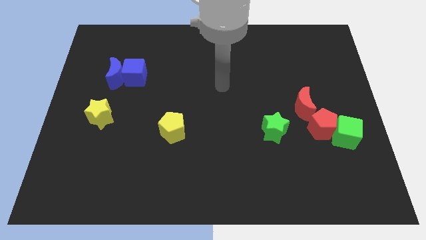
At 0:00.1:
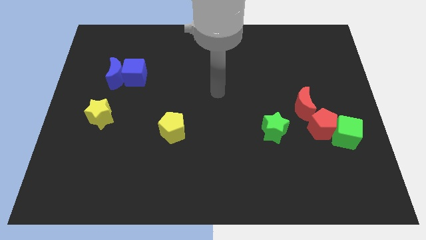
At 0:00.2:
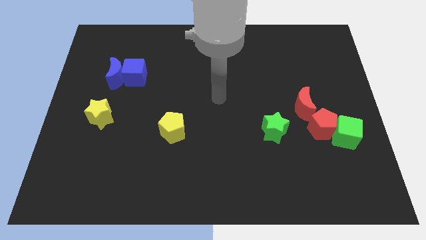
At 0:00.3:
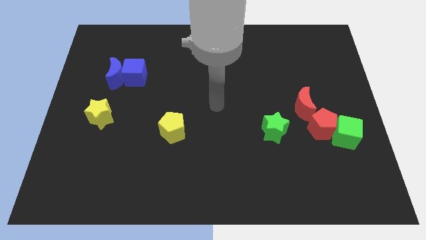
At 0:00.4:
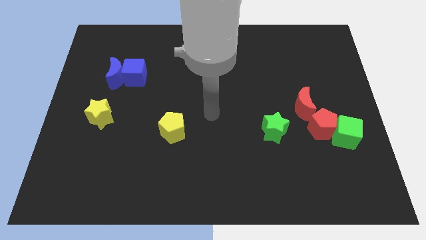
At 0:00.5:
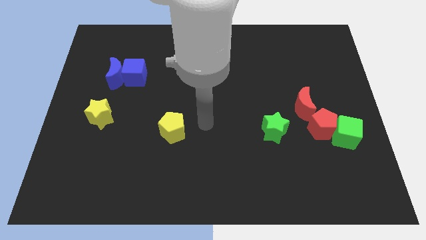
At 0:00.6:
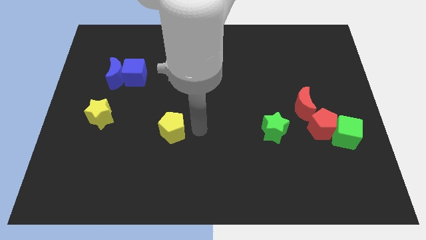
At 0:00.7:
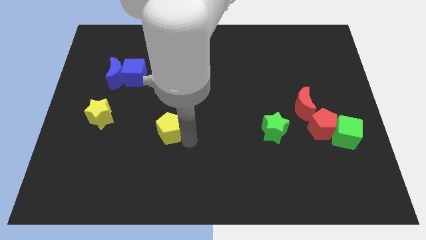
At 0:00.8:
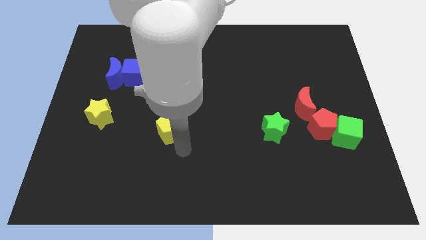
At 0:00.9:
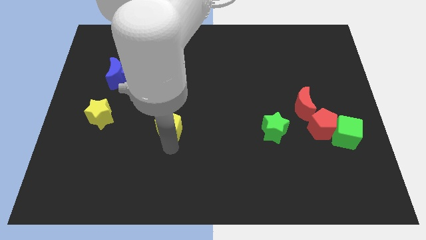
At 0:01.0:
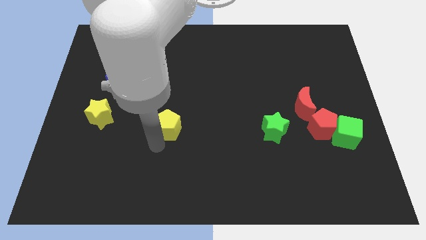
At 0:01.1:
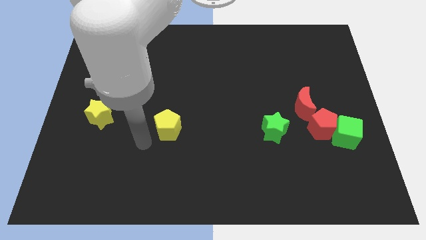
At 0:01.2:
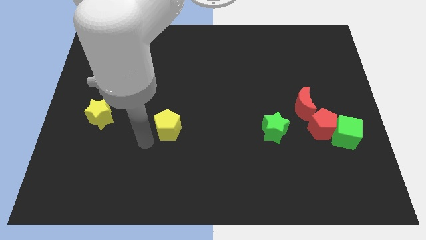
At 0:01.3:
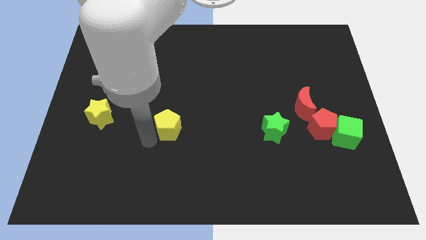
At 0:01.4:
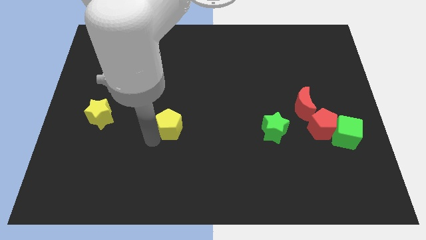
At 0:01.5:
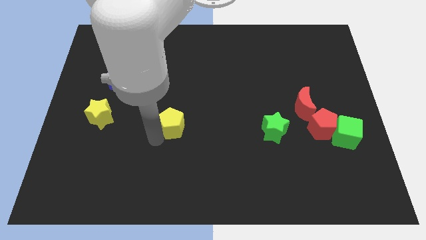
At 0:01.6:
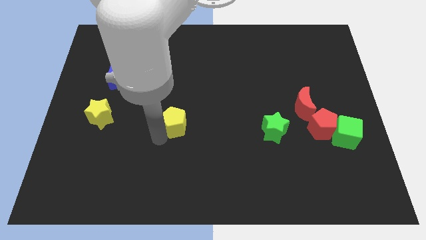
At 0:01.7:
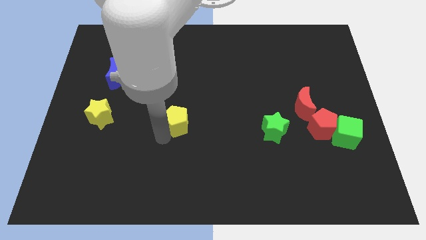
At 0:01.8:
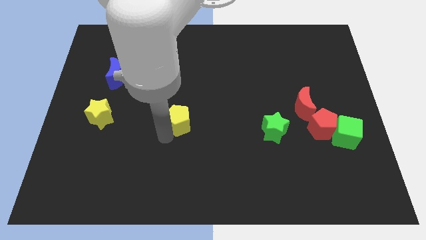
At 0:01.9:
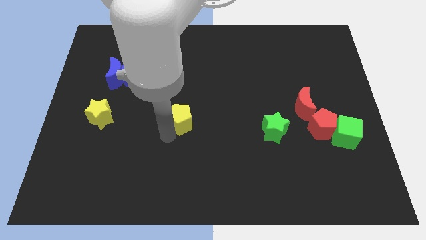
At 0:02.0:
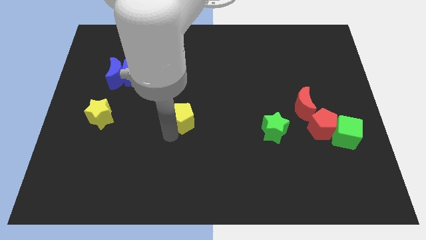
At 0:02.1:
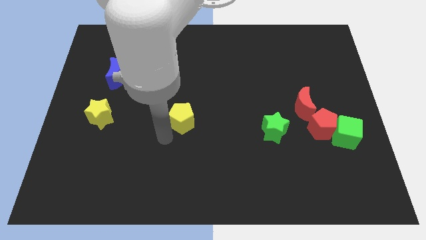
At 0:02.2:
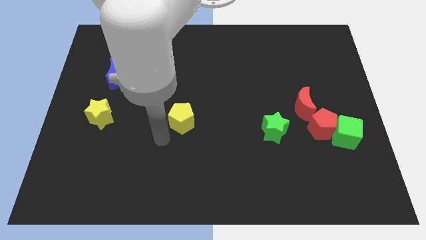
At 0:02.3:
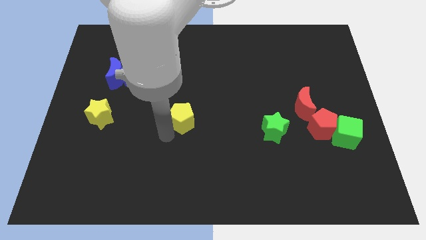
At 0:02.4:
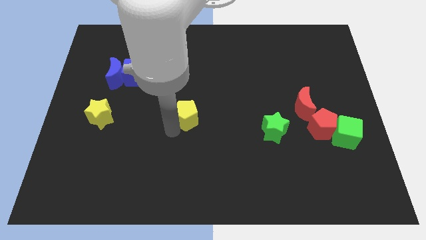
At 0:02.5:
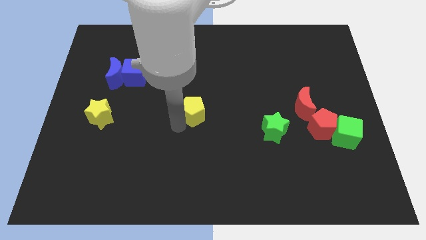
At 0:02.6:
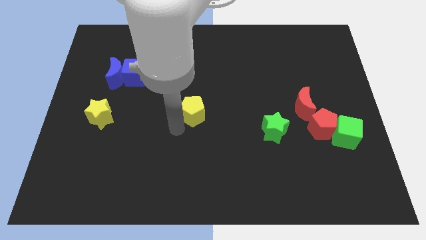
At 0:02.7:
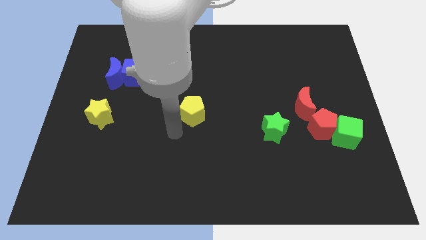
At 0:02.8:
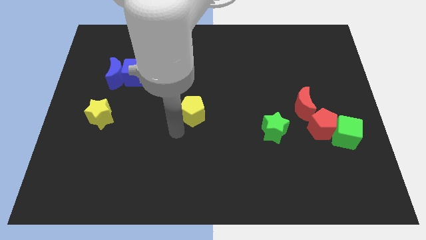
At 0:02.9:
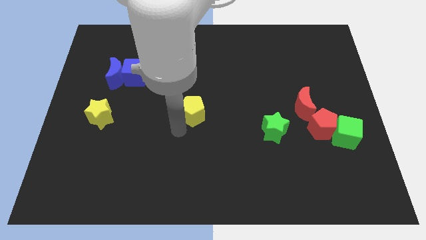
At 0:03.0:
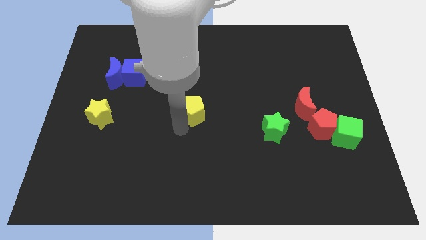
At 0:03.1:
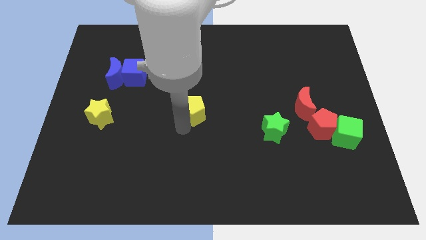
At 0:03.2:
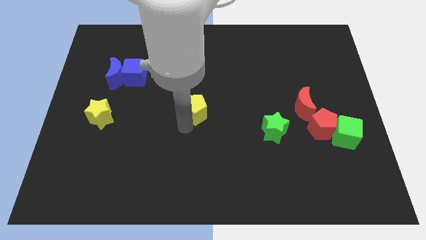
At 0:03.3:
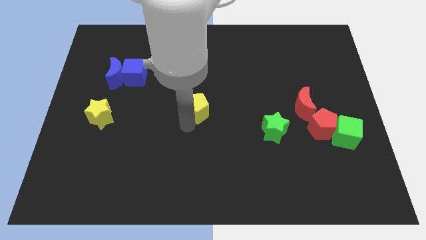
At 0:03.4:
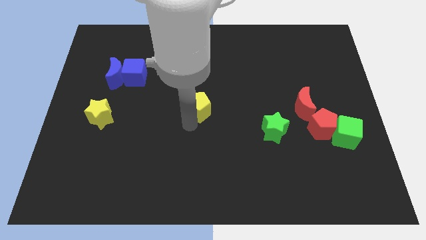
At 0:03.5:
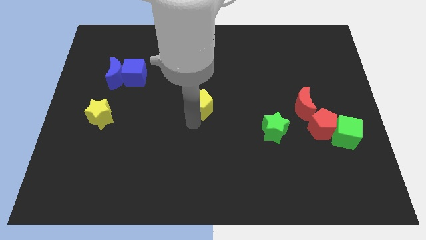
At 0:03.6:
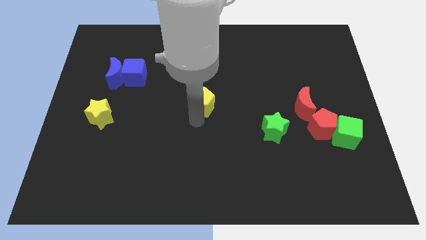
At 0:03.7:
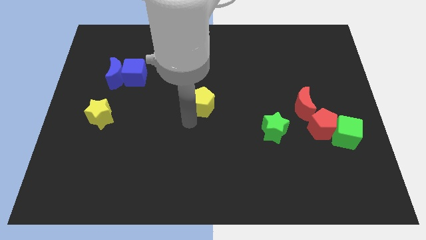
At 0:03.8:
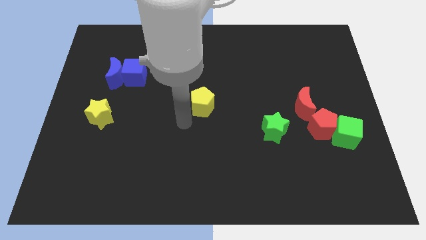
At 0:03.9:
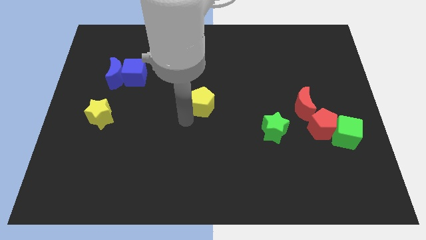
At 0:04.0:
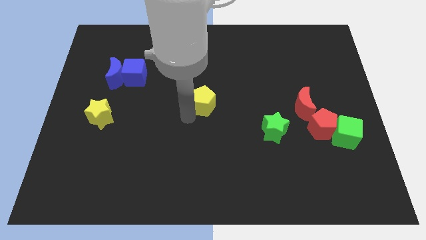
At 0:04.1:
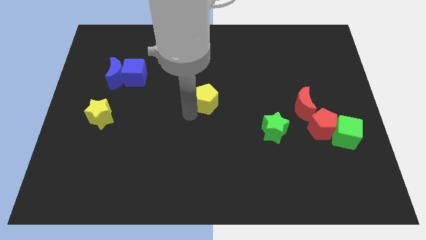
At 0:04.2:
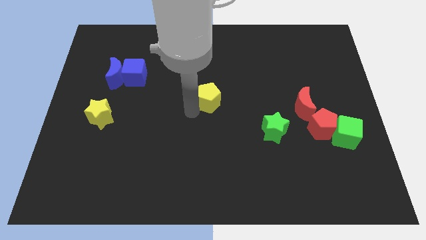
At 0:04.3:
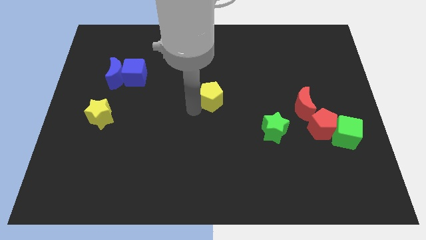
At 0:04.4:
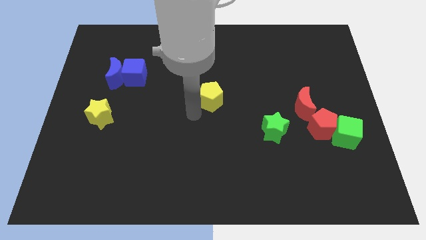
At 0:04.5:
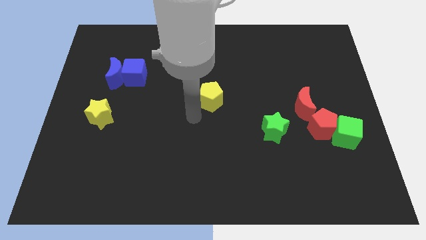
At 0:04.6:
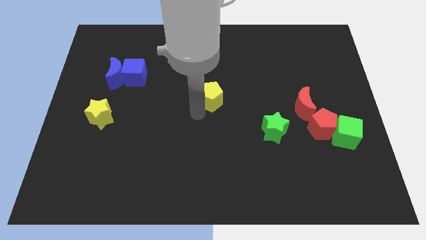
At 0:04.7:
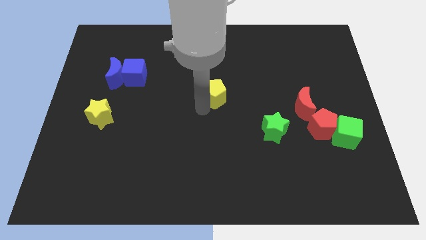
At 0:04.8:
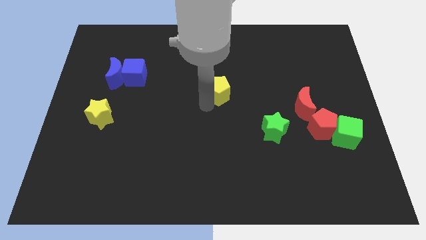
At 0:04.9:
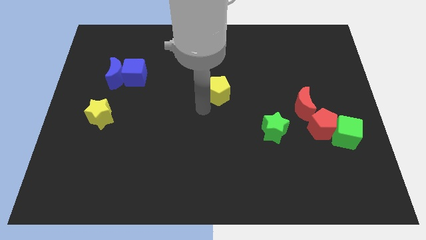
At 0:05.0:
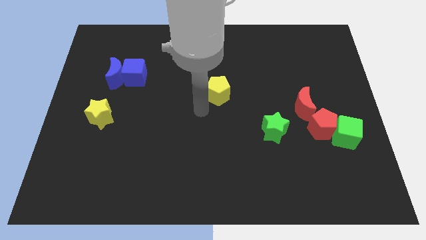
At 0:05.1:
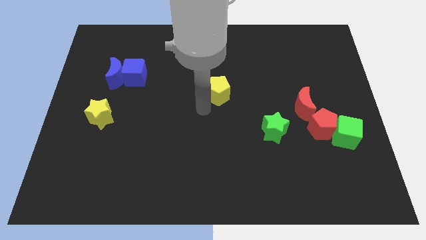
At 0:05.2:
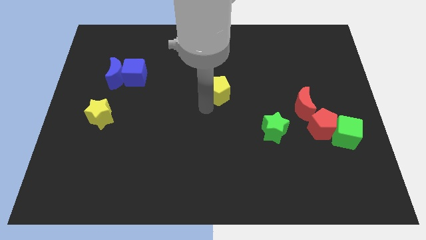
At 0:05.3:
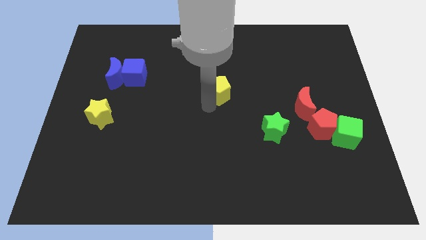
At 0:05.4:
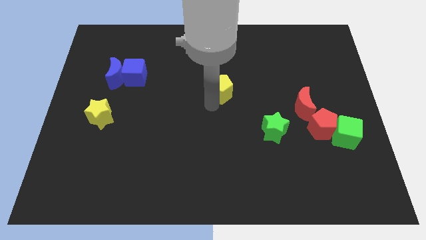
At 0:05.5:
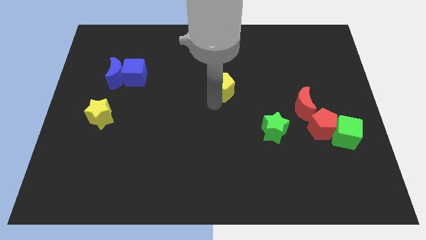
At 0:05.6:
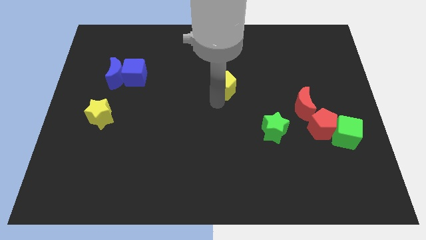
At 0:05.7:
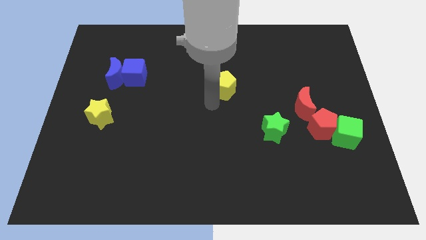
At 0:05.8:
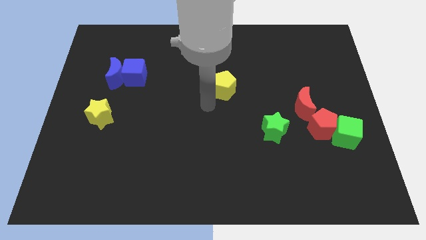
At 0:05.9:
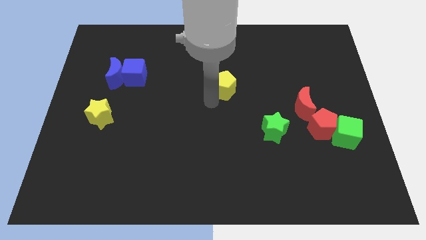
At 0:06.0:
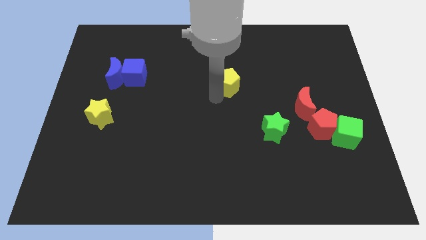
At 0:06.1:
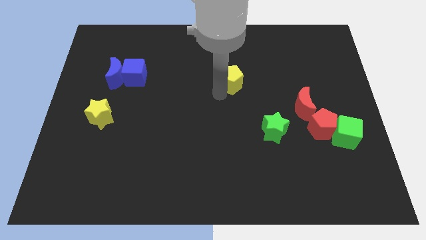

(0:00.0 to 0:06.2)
push the yellow pentagon up and to the right diagonally

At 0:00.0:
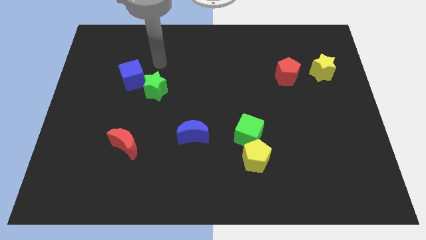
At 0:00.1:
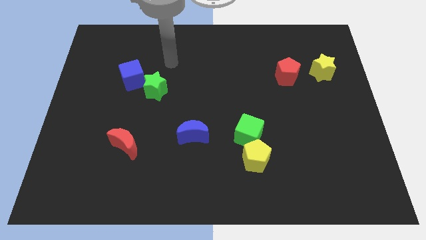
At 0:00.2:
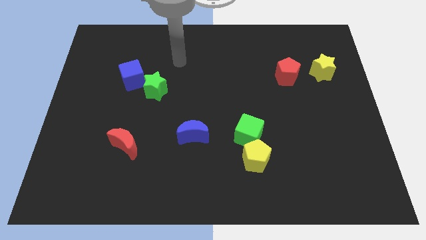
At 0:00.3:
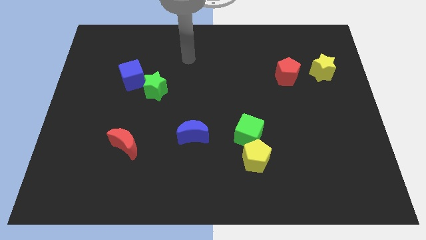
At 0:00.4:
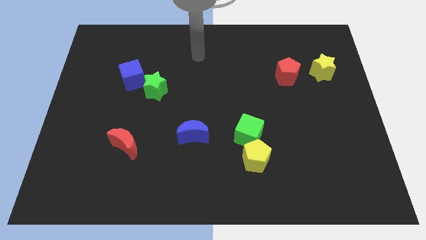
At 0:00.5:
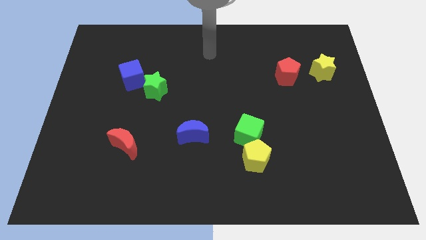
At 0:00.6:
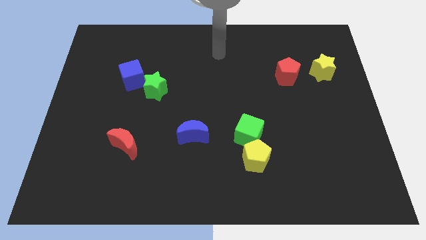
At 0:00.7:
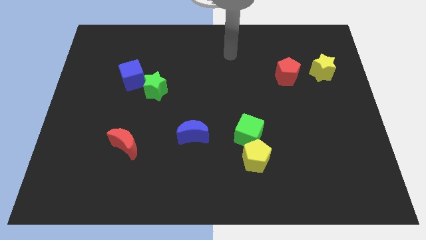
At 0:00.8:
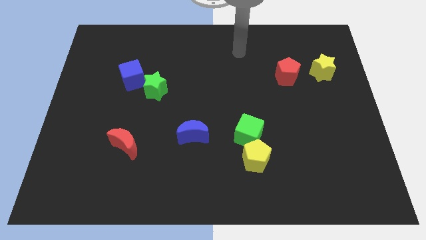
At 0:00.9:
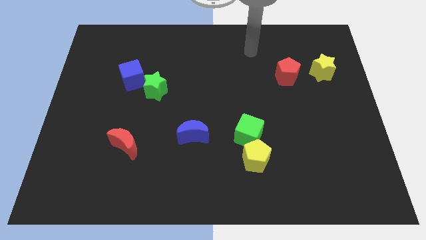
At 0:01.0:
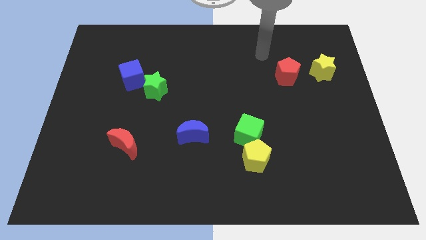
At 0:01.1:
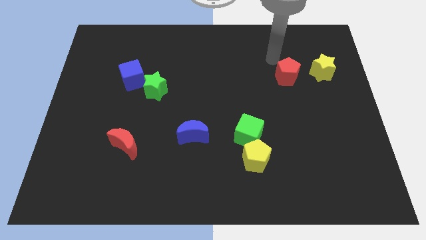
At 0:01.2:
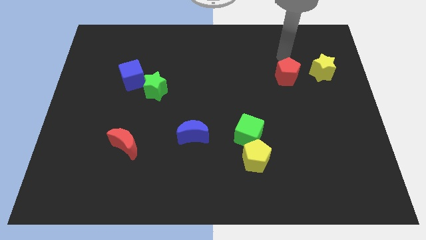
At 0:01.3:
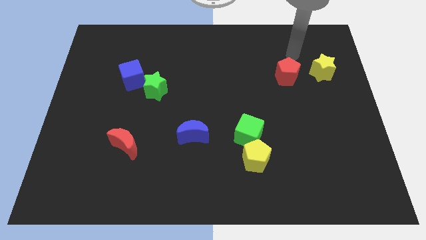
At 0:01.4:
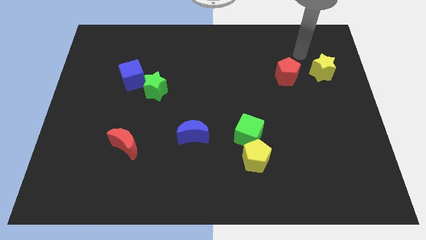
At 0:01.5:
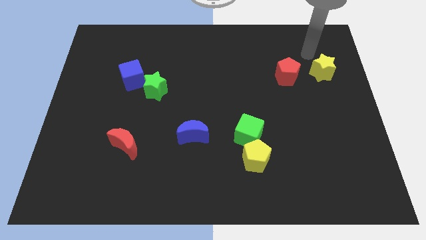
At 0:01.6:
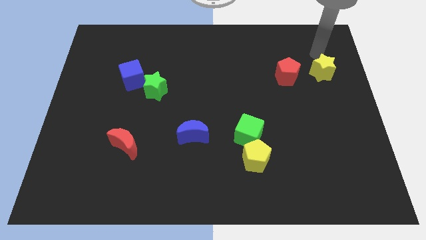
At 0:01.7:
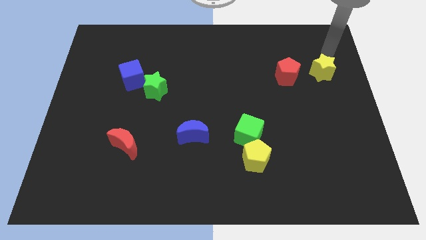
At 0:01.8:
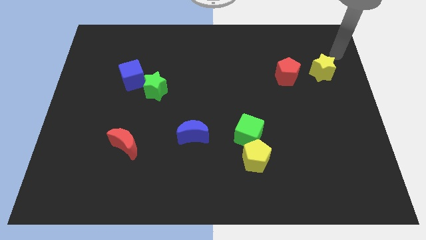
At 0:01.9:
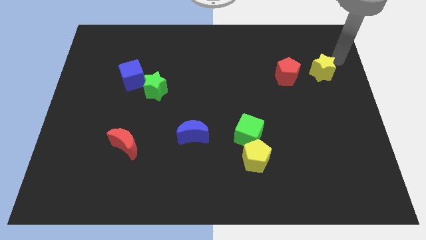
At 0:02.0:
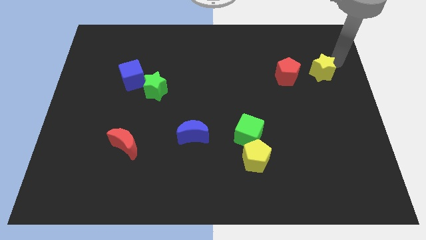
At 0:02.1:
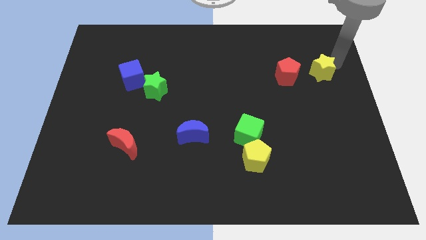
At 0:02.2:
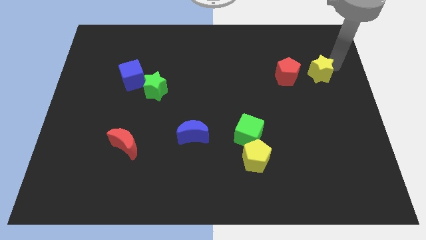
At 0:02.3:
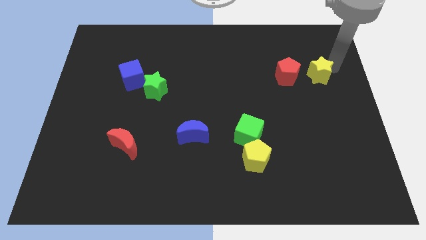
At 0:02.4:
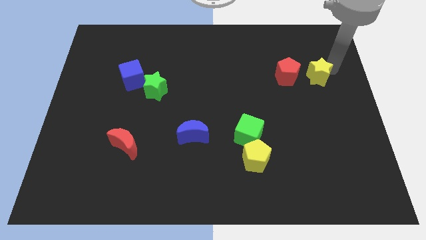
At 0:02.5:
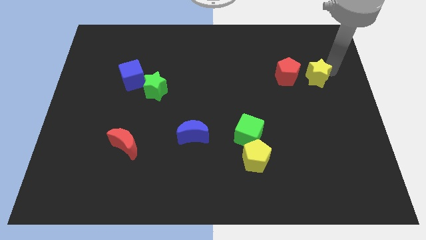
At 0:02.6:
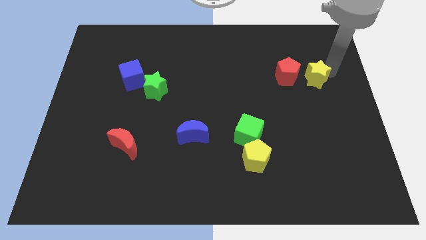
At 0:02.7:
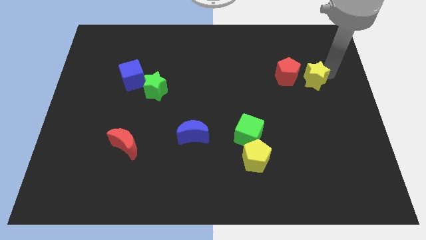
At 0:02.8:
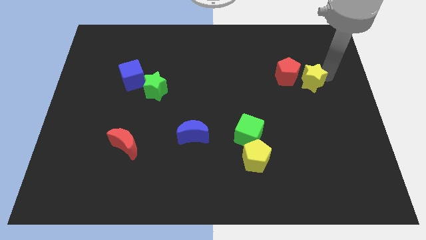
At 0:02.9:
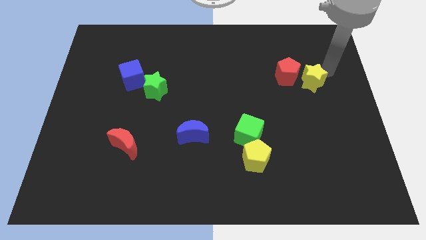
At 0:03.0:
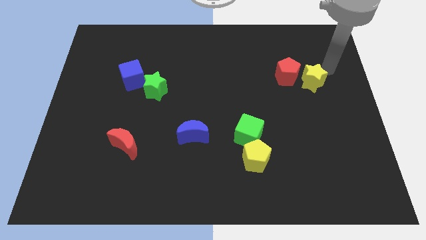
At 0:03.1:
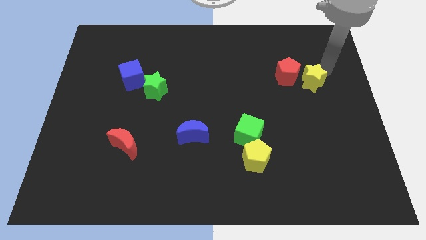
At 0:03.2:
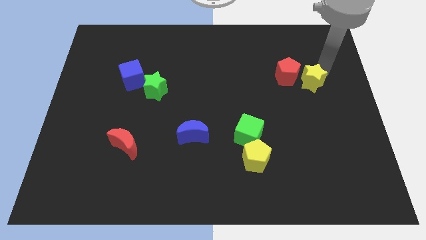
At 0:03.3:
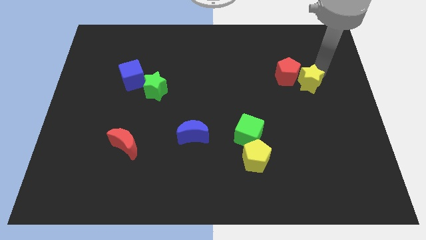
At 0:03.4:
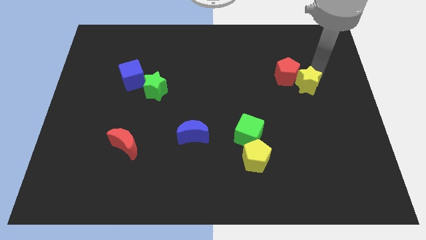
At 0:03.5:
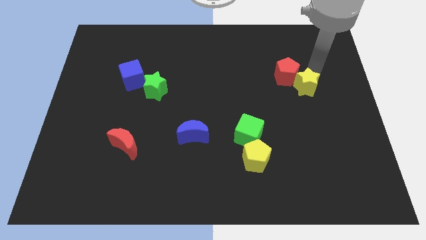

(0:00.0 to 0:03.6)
move the yellow star diagonally downwards and left slightly
